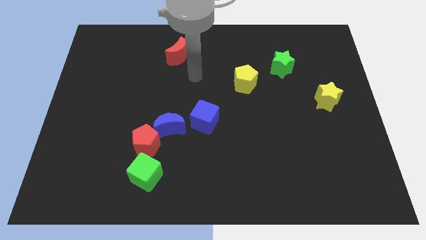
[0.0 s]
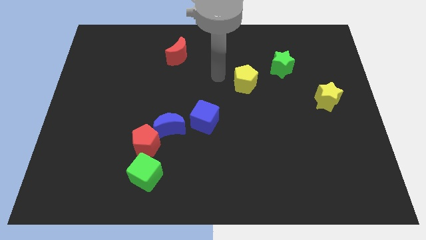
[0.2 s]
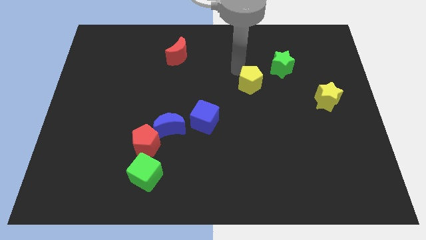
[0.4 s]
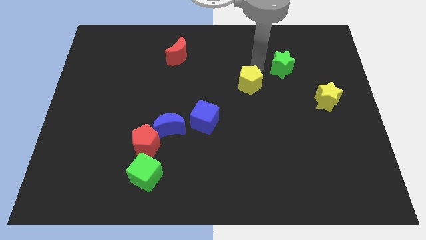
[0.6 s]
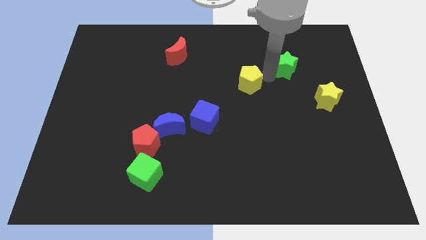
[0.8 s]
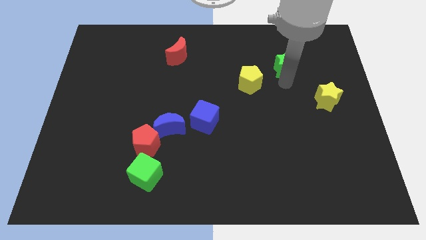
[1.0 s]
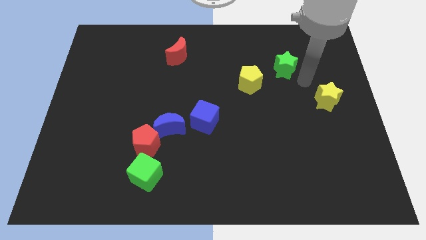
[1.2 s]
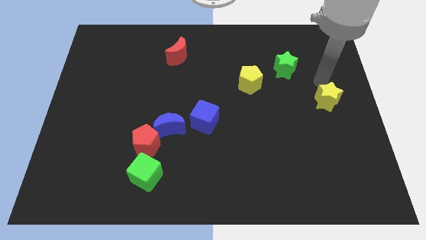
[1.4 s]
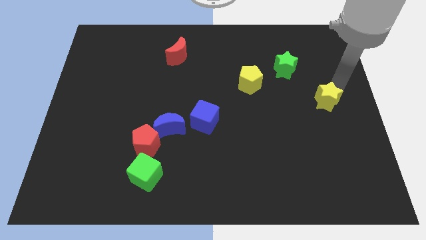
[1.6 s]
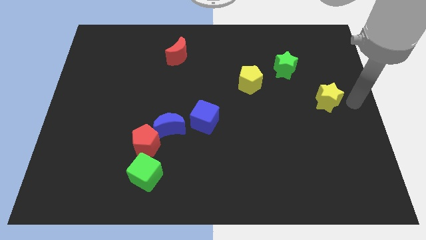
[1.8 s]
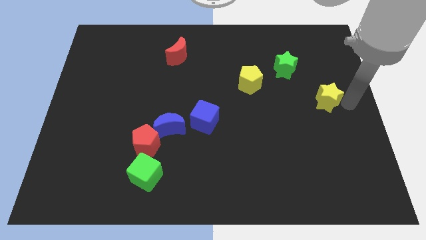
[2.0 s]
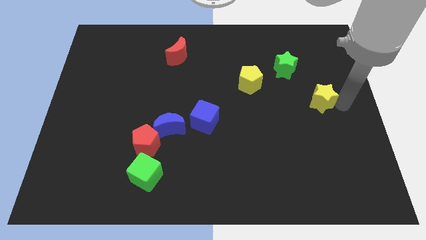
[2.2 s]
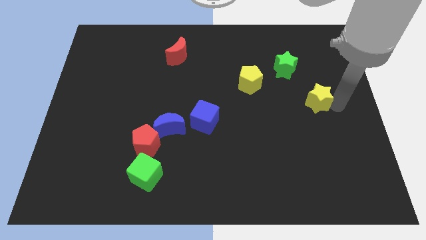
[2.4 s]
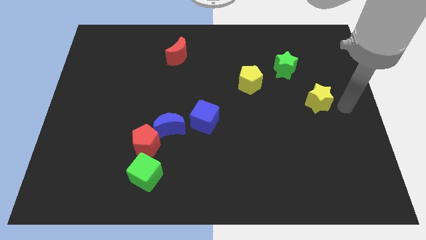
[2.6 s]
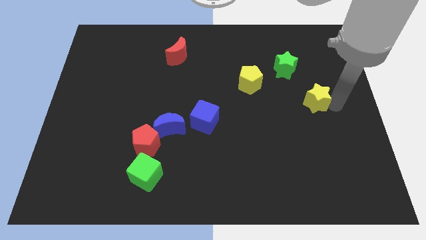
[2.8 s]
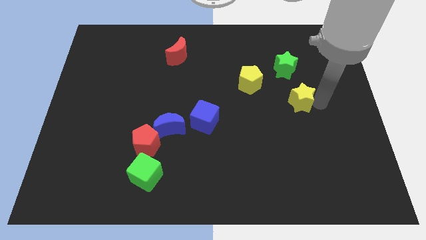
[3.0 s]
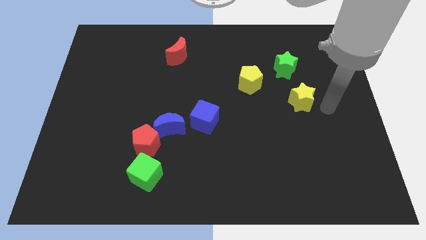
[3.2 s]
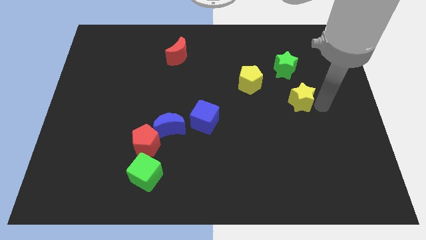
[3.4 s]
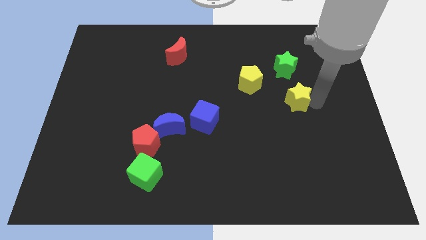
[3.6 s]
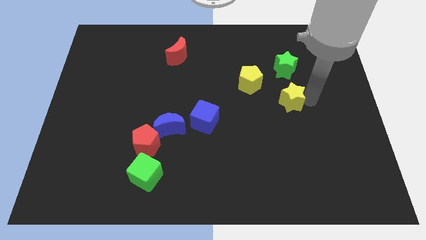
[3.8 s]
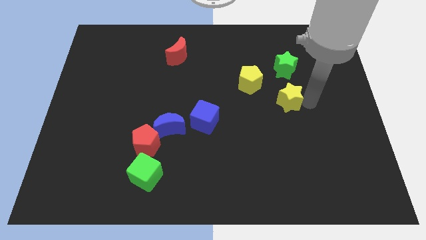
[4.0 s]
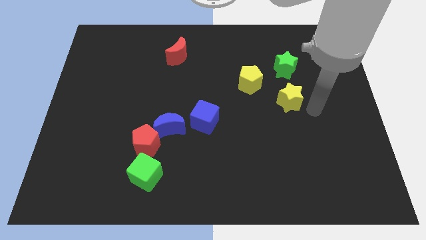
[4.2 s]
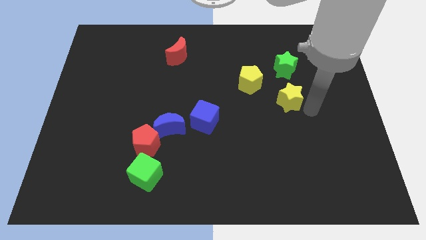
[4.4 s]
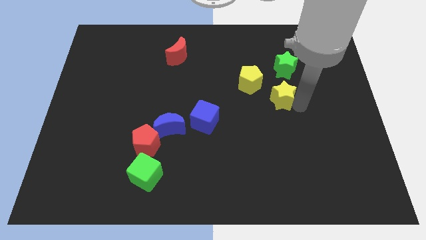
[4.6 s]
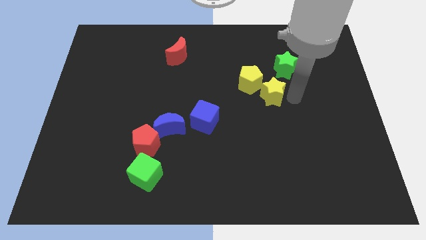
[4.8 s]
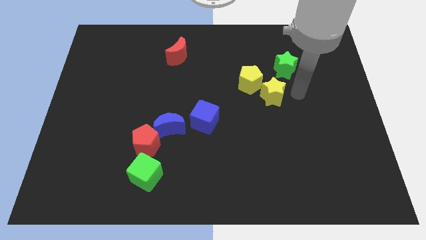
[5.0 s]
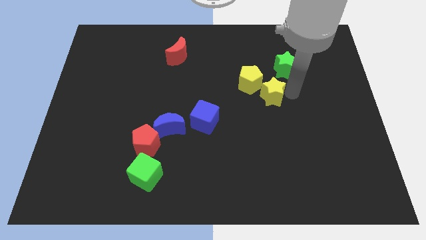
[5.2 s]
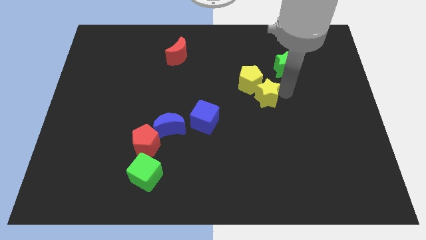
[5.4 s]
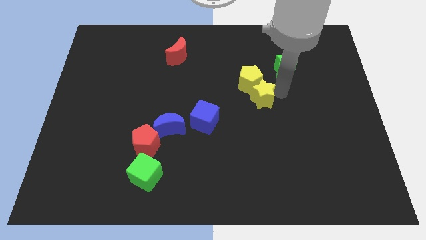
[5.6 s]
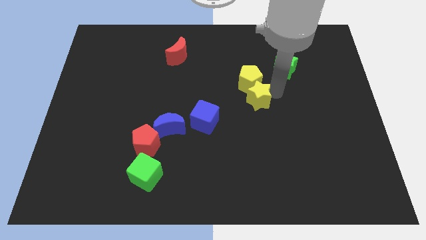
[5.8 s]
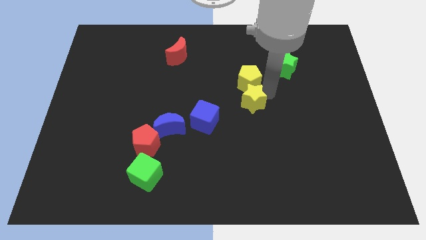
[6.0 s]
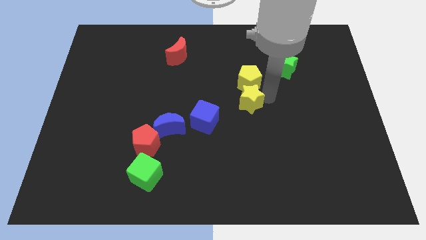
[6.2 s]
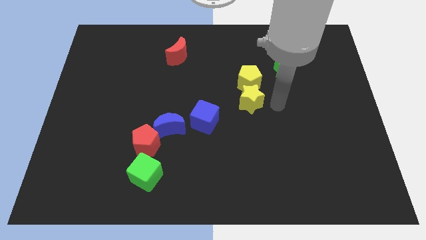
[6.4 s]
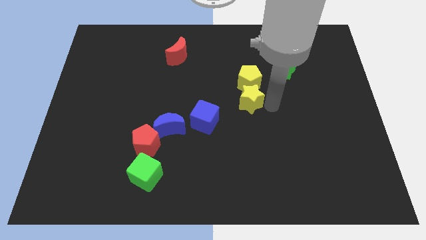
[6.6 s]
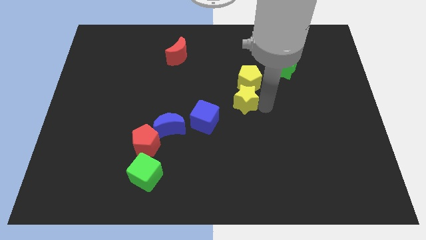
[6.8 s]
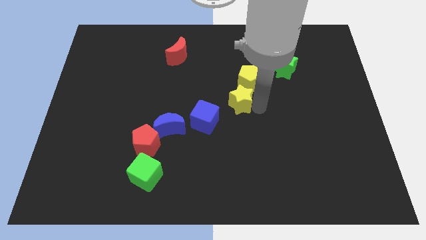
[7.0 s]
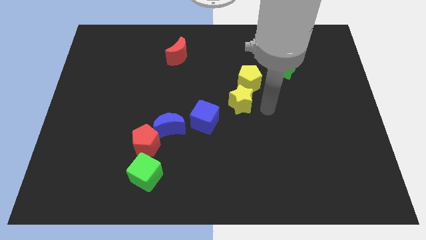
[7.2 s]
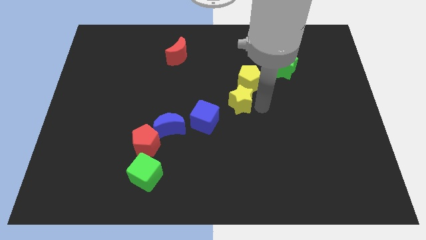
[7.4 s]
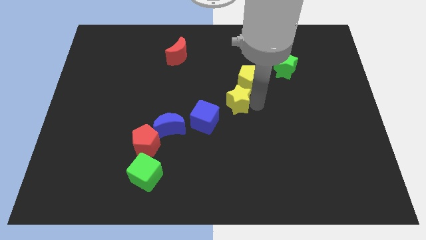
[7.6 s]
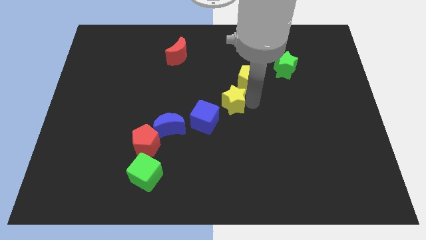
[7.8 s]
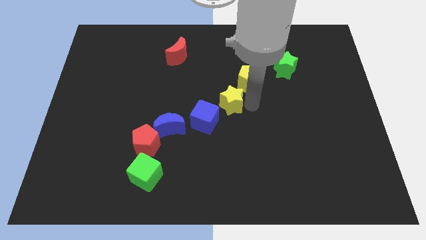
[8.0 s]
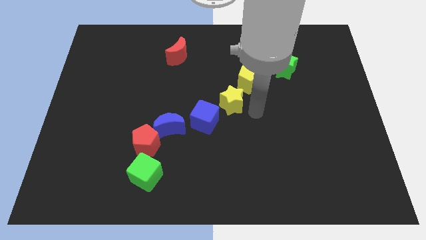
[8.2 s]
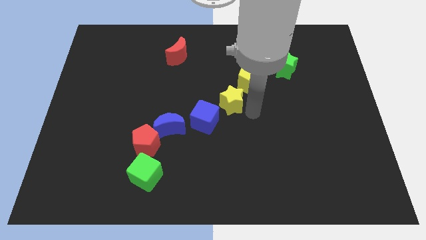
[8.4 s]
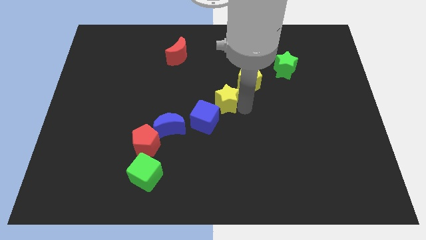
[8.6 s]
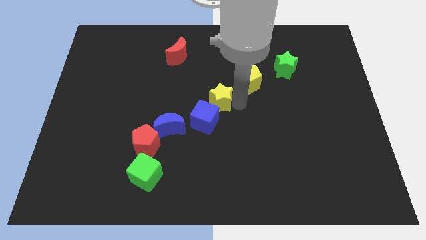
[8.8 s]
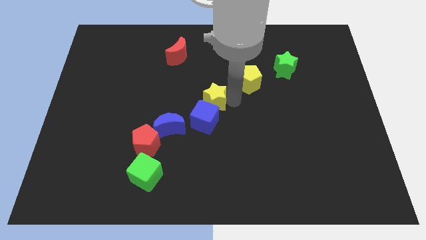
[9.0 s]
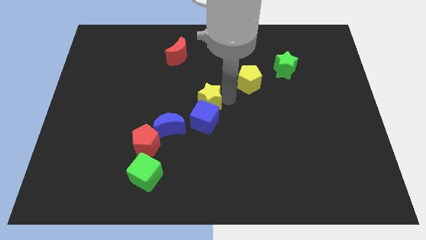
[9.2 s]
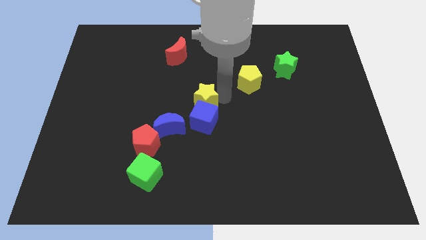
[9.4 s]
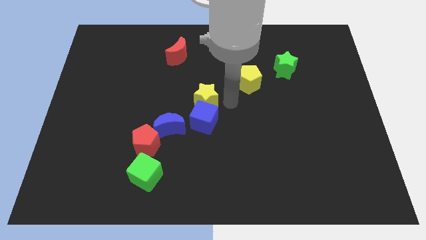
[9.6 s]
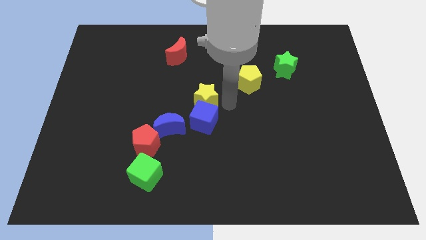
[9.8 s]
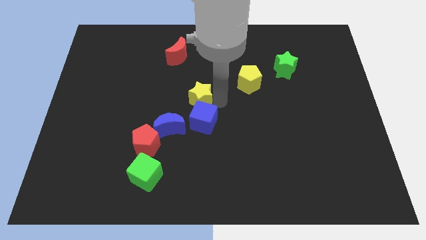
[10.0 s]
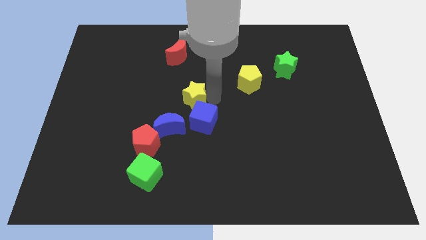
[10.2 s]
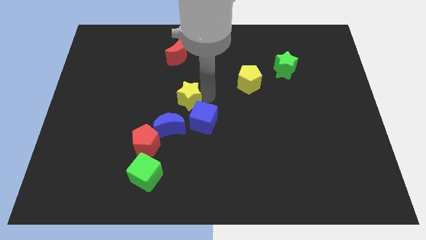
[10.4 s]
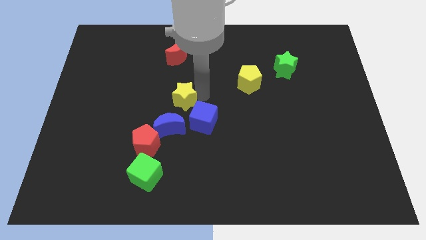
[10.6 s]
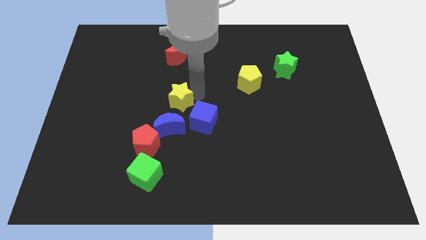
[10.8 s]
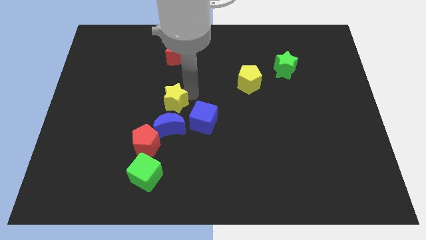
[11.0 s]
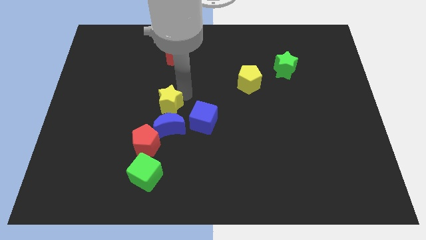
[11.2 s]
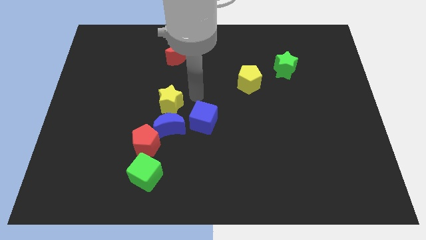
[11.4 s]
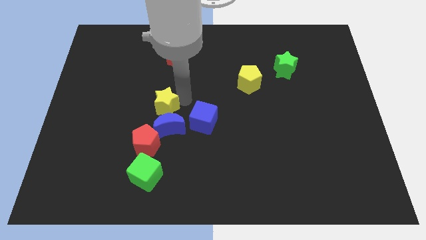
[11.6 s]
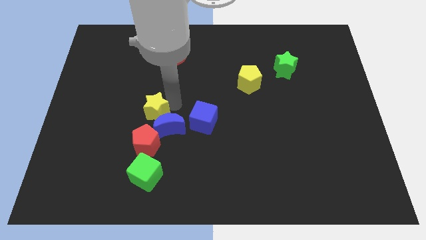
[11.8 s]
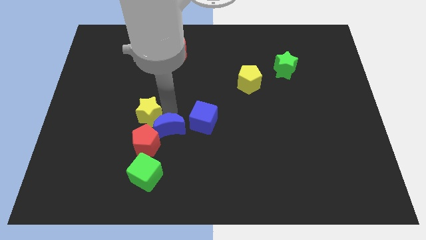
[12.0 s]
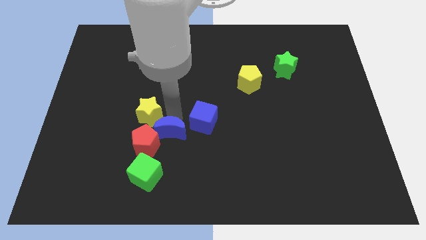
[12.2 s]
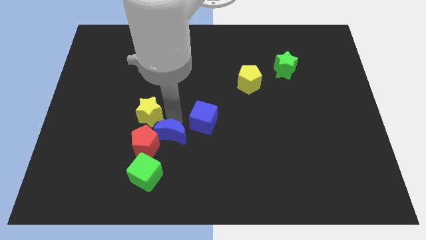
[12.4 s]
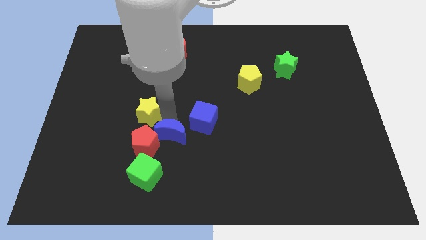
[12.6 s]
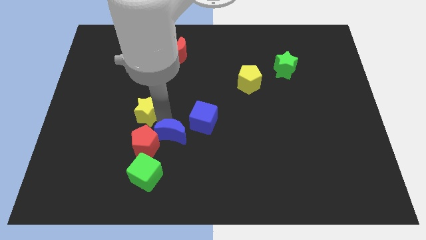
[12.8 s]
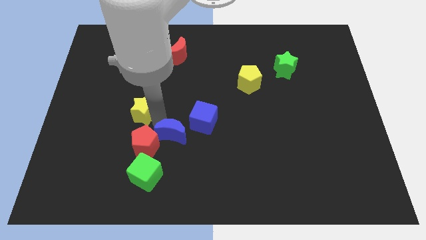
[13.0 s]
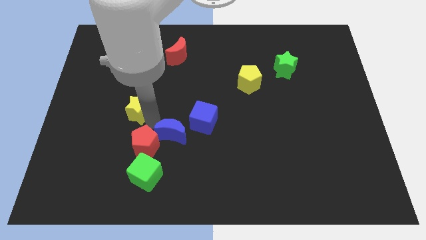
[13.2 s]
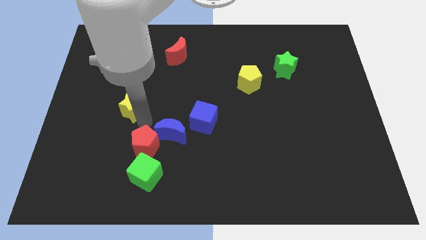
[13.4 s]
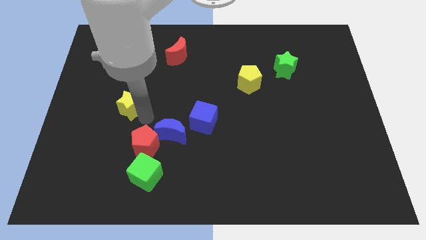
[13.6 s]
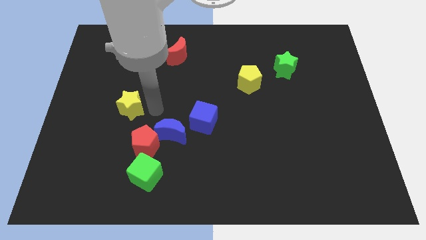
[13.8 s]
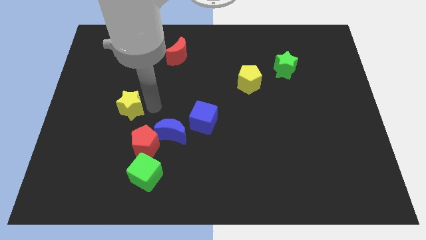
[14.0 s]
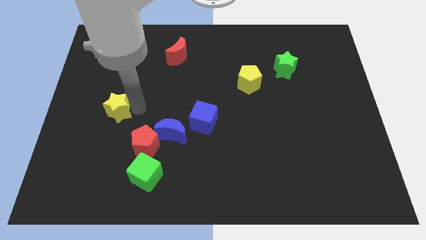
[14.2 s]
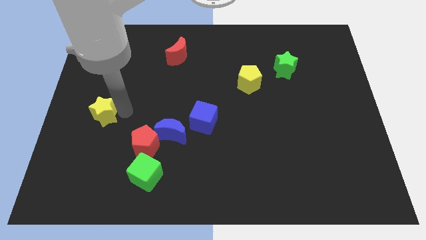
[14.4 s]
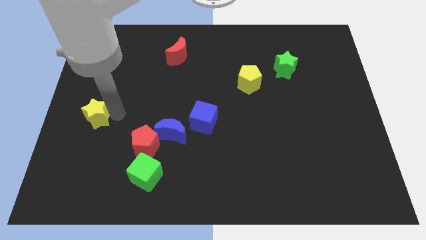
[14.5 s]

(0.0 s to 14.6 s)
push the yellow star to the center left

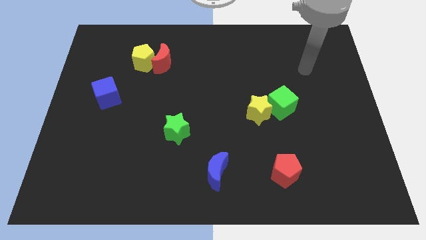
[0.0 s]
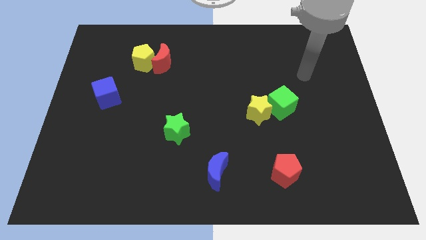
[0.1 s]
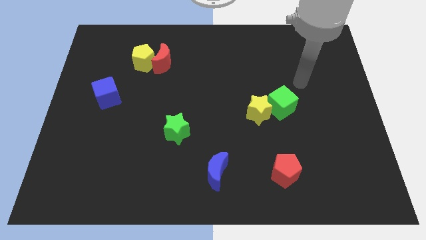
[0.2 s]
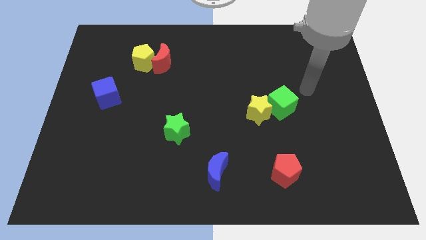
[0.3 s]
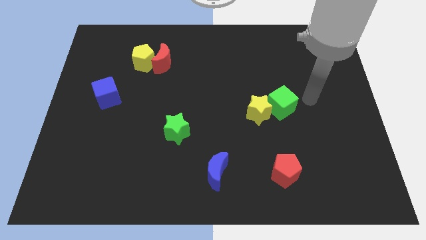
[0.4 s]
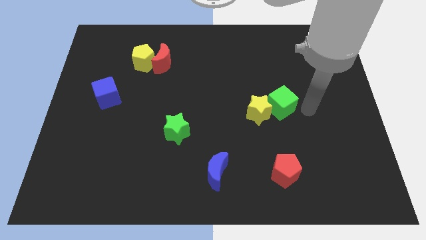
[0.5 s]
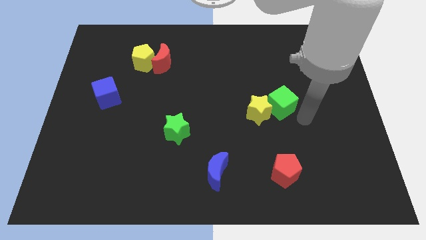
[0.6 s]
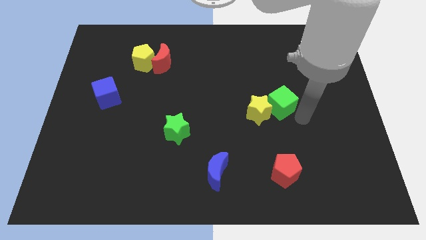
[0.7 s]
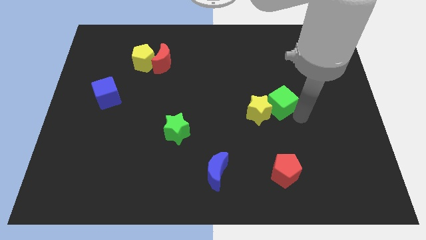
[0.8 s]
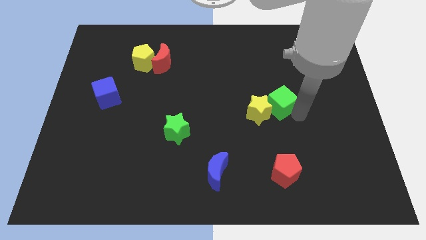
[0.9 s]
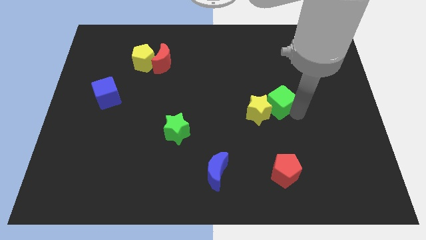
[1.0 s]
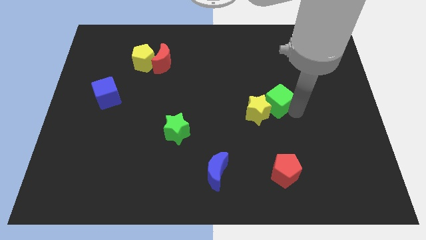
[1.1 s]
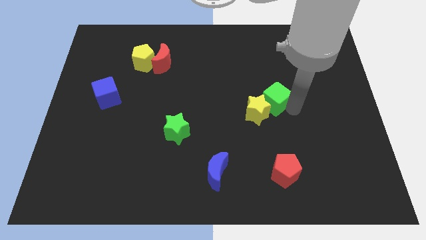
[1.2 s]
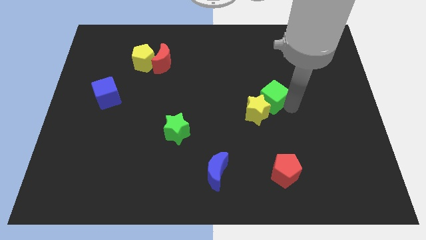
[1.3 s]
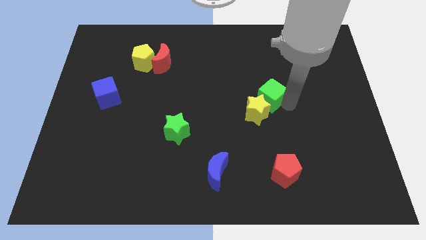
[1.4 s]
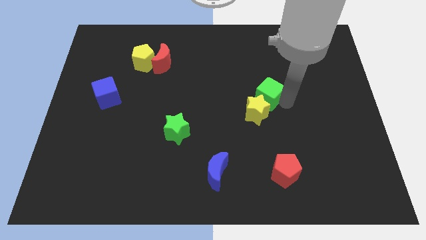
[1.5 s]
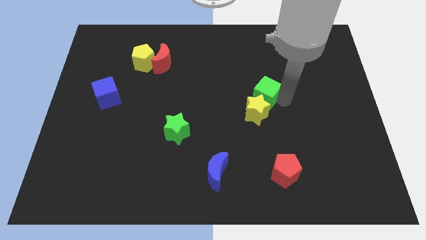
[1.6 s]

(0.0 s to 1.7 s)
move the green cube to the center of the board
